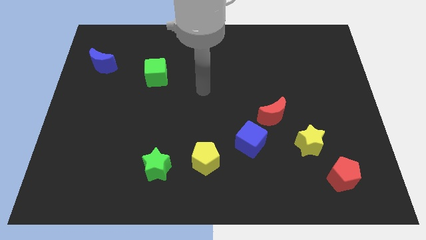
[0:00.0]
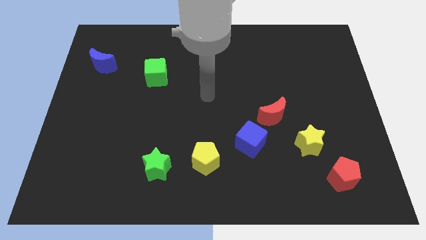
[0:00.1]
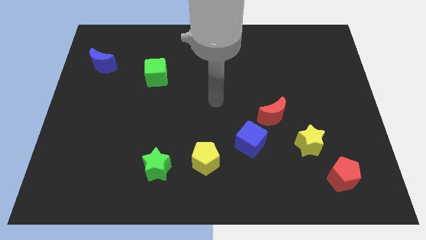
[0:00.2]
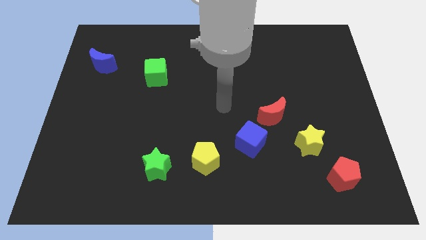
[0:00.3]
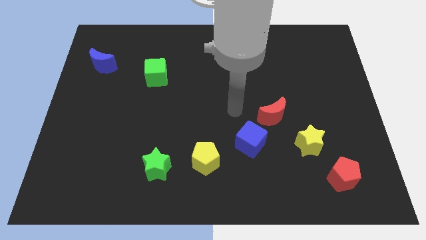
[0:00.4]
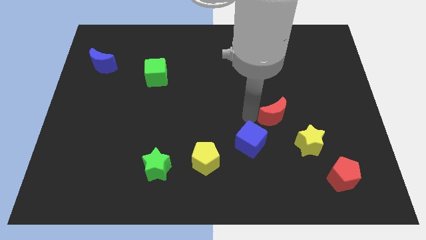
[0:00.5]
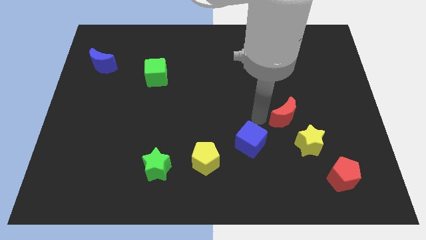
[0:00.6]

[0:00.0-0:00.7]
move the blue cube away from the red moon

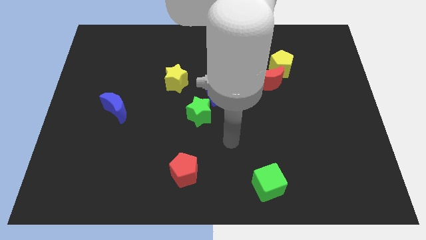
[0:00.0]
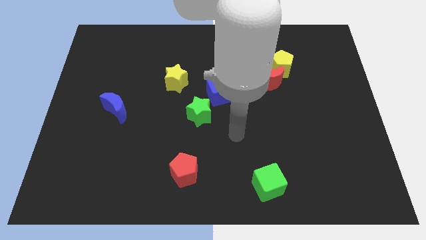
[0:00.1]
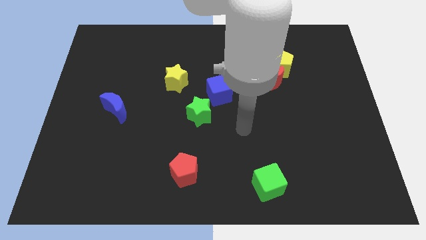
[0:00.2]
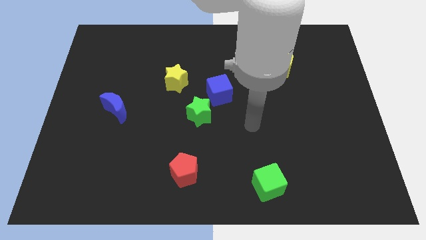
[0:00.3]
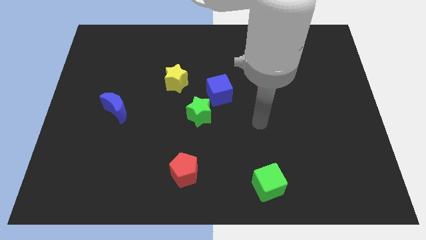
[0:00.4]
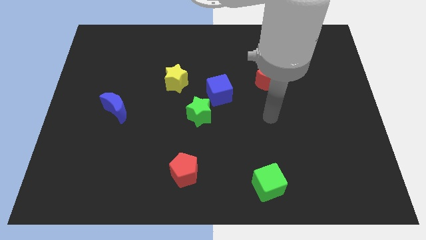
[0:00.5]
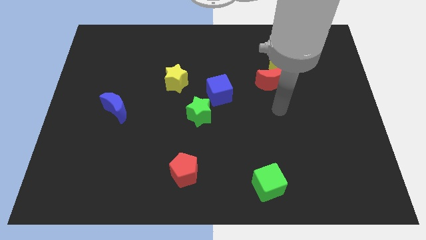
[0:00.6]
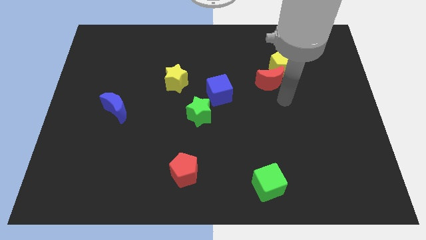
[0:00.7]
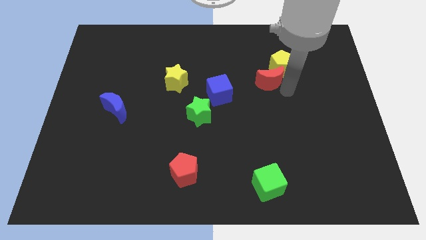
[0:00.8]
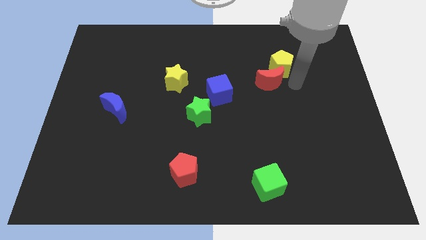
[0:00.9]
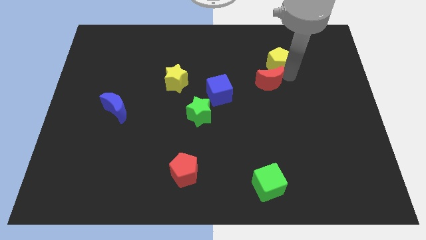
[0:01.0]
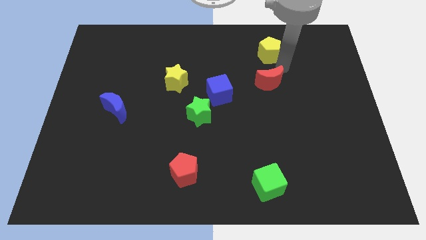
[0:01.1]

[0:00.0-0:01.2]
pull the red moon apart from the yellow pentagon

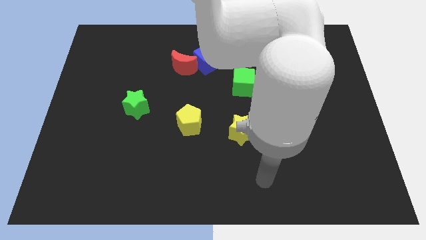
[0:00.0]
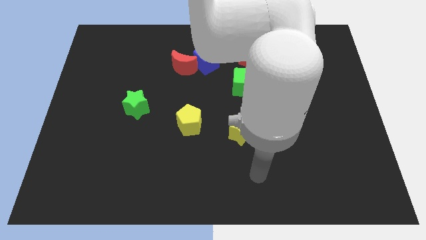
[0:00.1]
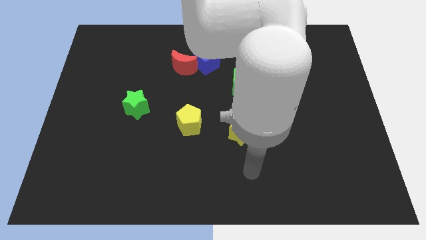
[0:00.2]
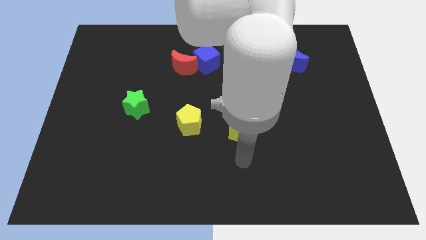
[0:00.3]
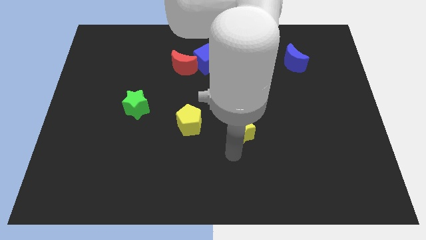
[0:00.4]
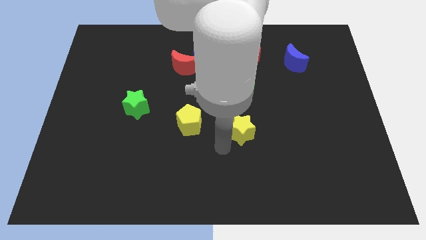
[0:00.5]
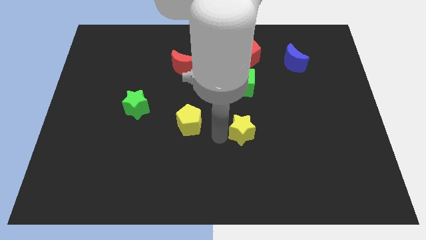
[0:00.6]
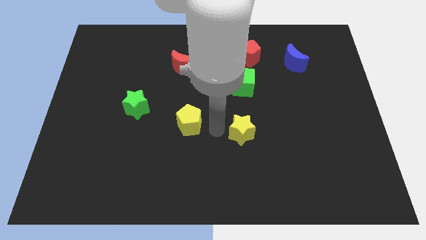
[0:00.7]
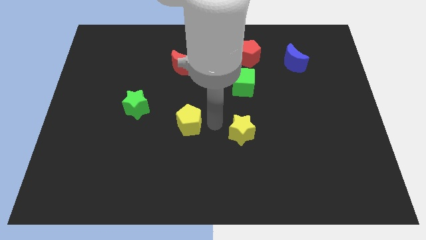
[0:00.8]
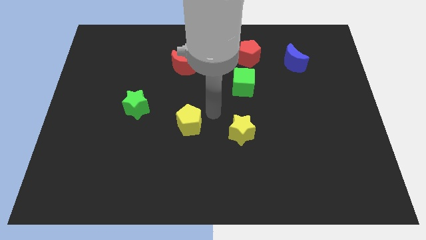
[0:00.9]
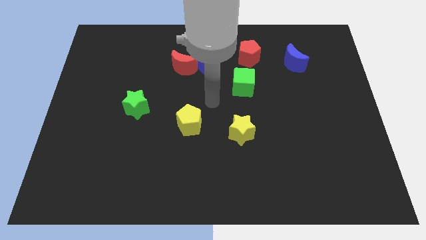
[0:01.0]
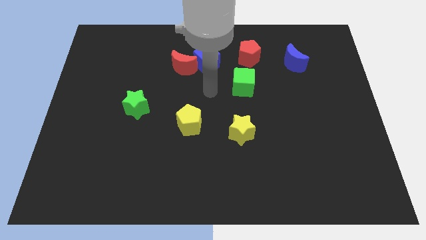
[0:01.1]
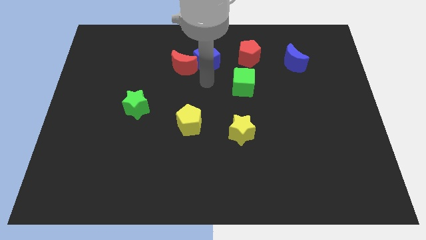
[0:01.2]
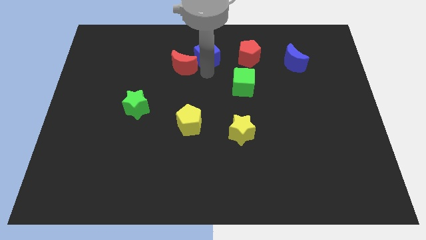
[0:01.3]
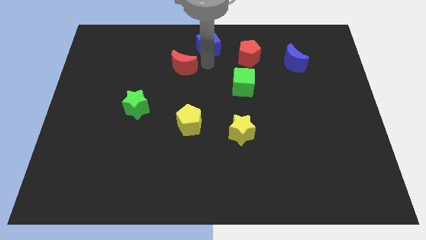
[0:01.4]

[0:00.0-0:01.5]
separate the red moon from the blue cube

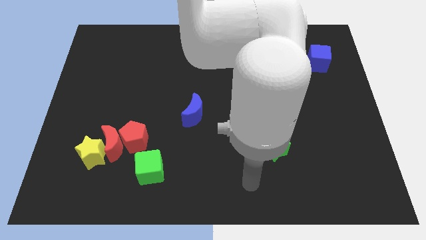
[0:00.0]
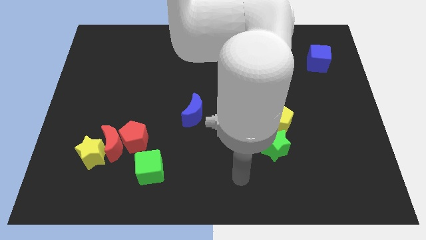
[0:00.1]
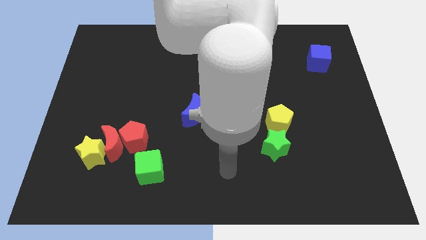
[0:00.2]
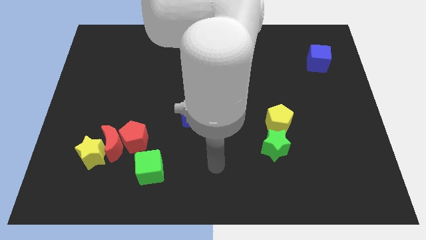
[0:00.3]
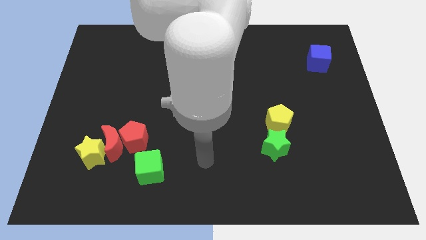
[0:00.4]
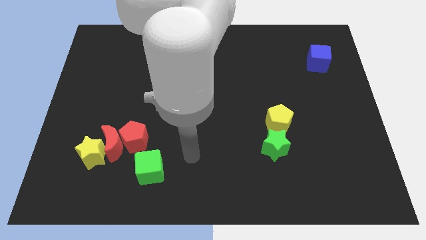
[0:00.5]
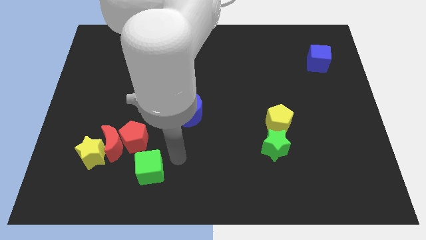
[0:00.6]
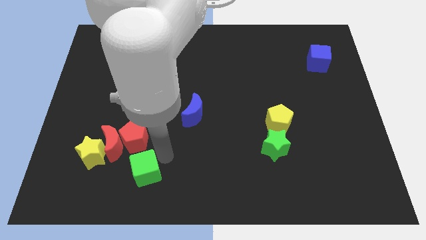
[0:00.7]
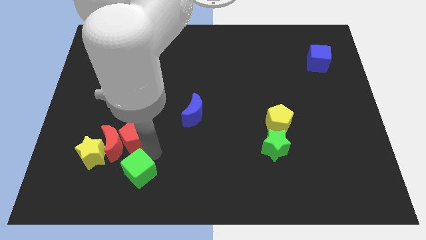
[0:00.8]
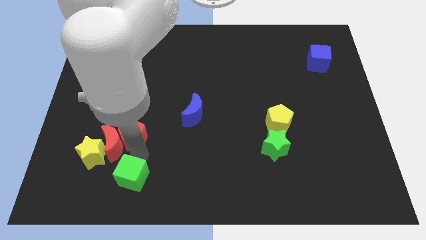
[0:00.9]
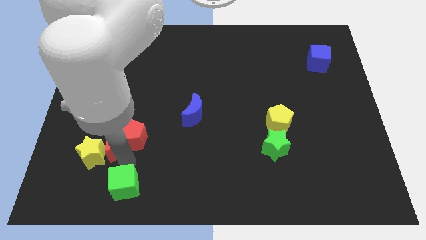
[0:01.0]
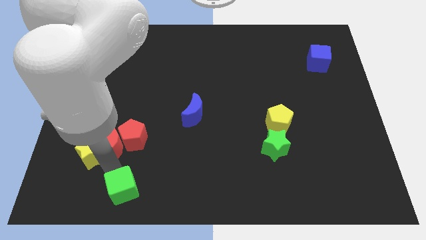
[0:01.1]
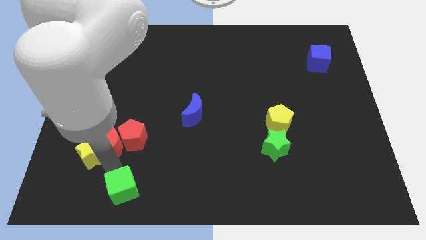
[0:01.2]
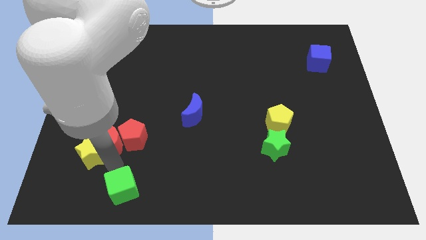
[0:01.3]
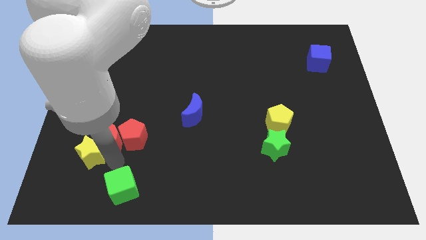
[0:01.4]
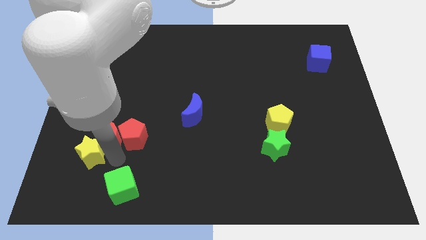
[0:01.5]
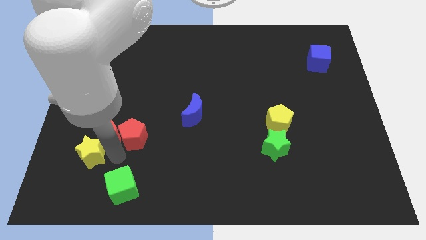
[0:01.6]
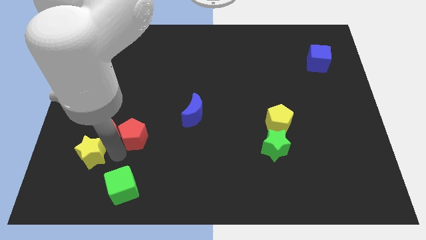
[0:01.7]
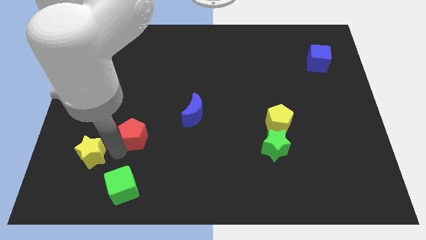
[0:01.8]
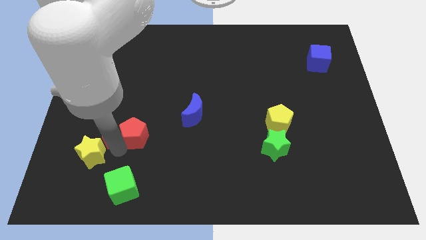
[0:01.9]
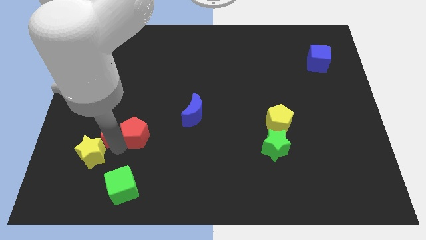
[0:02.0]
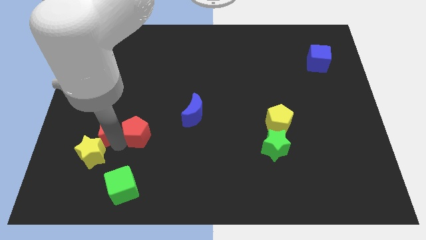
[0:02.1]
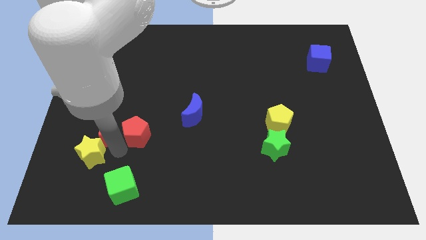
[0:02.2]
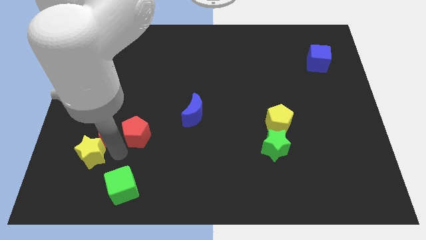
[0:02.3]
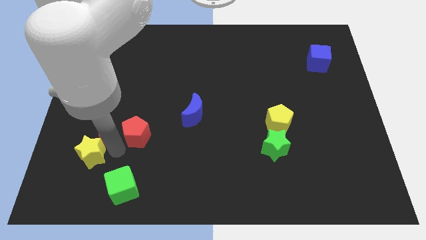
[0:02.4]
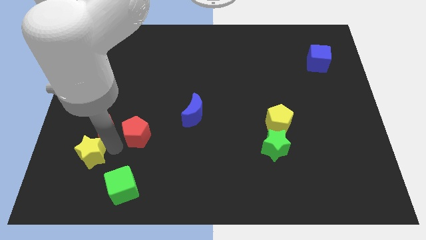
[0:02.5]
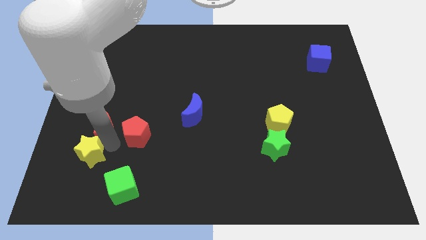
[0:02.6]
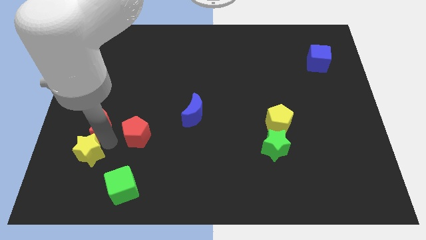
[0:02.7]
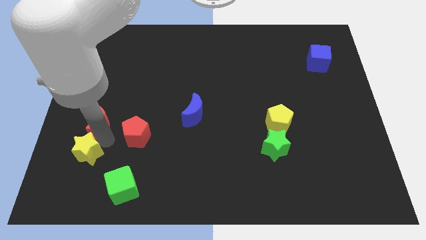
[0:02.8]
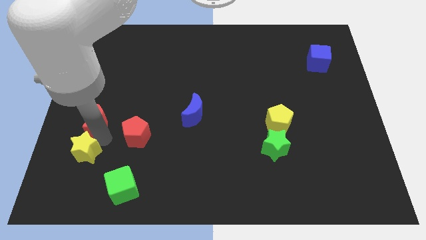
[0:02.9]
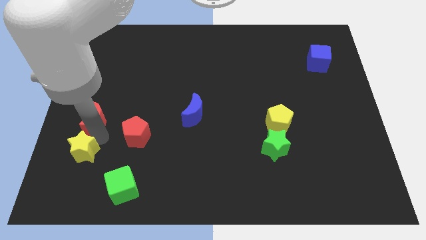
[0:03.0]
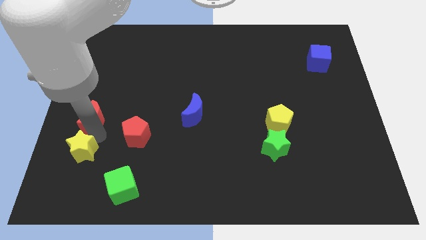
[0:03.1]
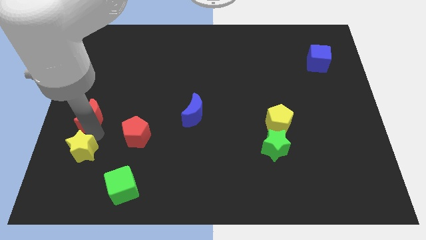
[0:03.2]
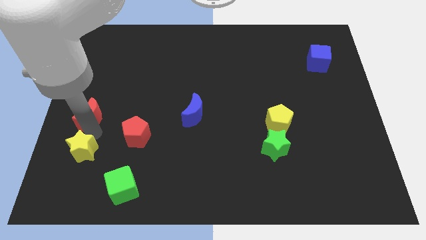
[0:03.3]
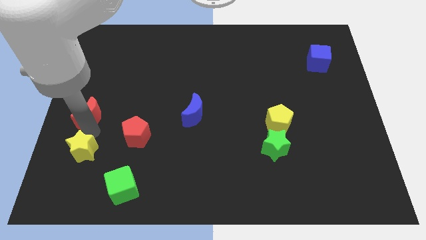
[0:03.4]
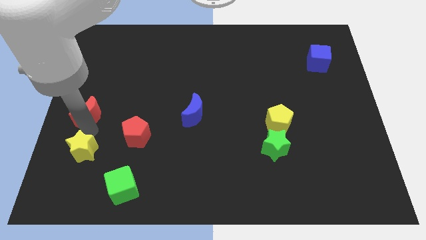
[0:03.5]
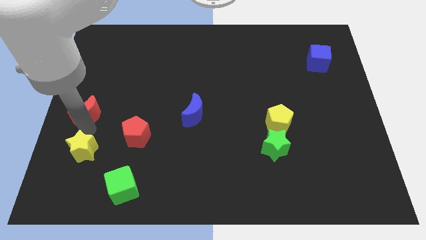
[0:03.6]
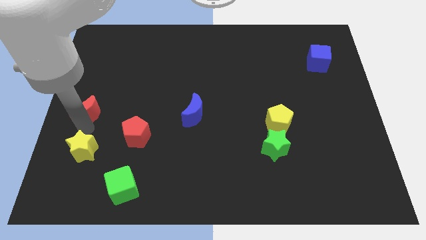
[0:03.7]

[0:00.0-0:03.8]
pull the red moon apart from the red pentagon and yellow star

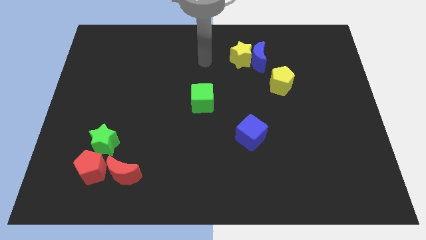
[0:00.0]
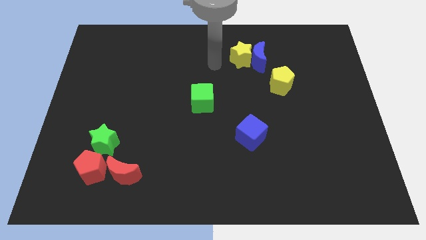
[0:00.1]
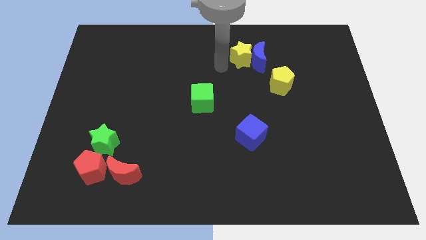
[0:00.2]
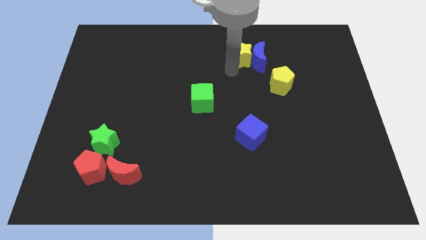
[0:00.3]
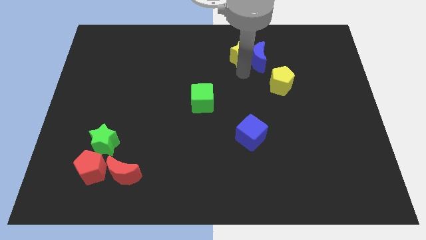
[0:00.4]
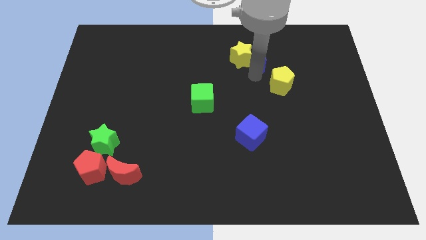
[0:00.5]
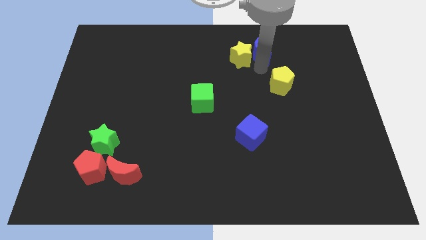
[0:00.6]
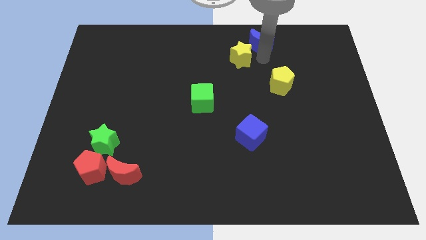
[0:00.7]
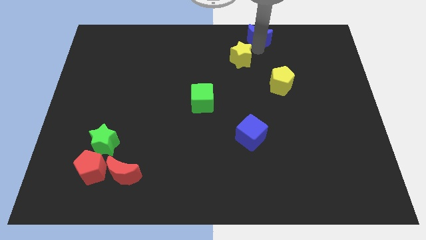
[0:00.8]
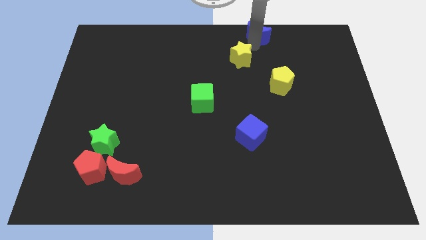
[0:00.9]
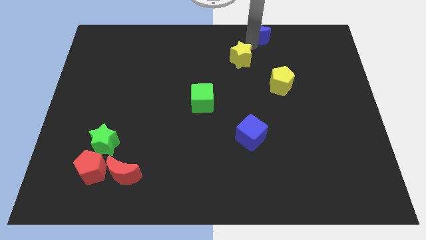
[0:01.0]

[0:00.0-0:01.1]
pull the yellow star apart from the blue moon

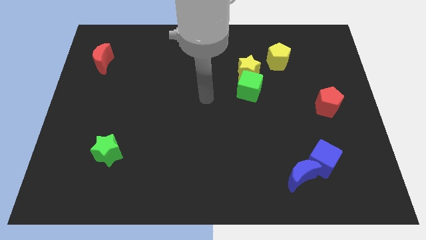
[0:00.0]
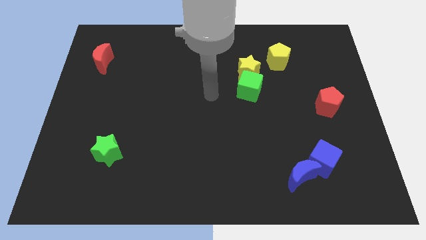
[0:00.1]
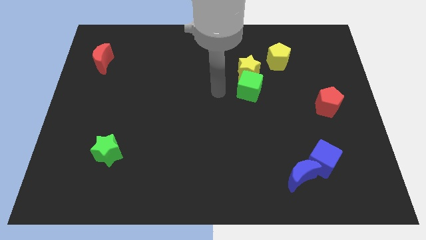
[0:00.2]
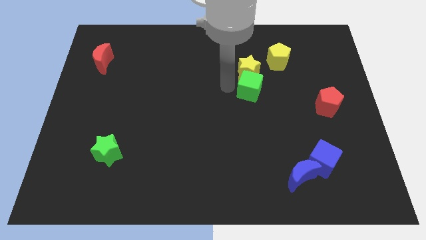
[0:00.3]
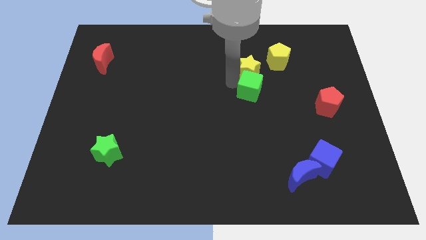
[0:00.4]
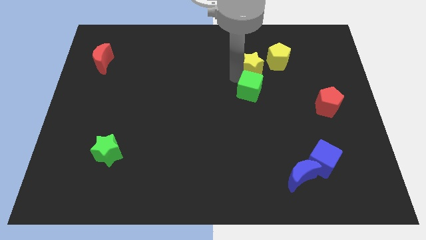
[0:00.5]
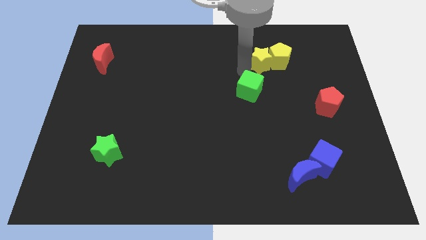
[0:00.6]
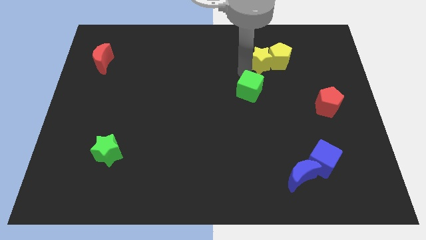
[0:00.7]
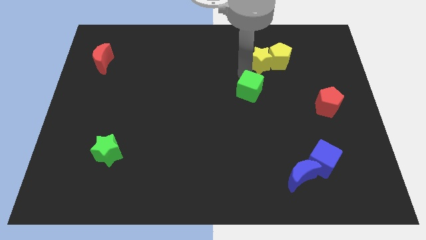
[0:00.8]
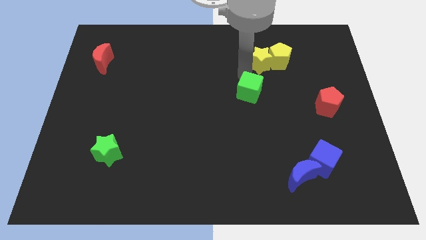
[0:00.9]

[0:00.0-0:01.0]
separate the green cube from the yellow star

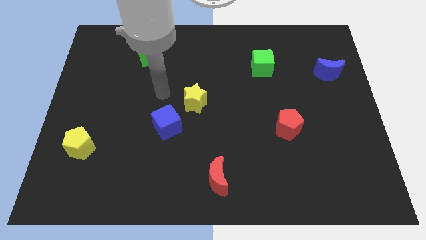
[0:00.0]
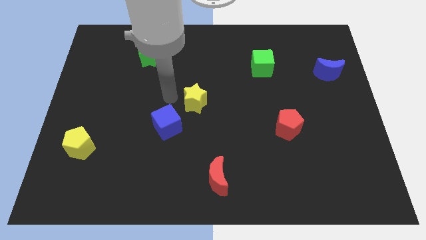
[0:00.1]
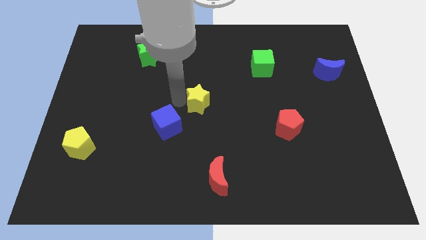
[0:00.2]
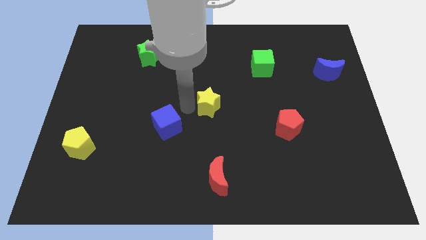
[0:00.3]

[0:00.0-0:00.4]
move the blue cube away from the yellow star
